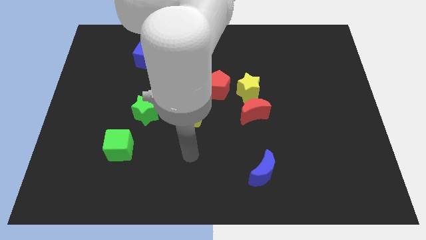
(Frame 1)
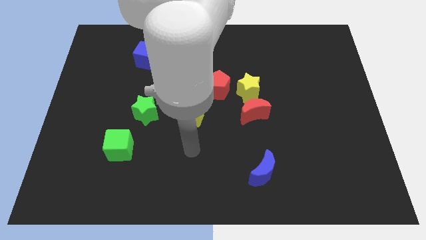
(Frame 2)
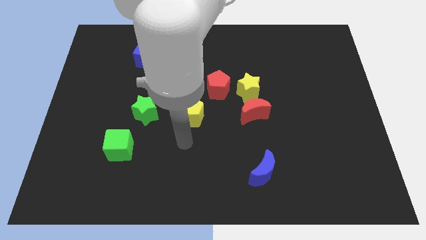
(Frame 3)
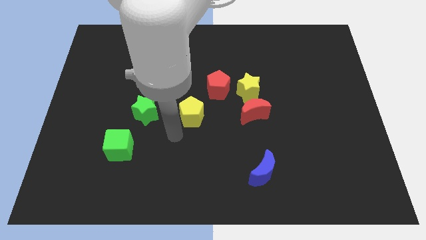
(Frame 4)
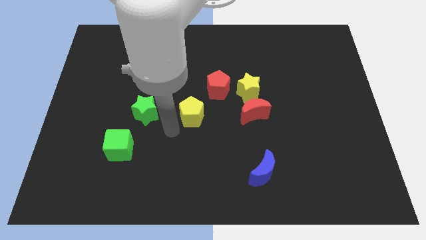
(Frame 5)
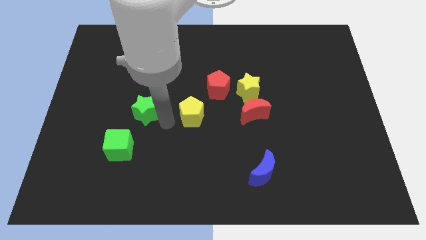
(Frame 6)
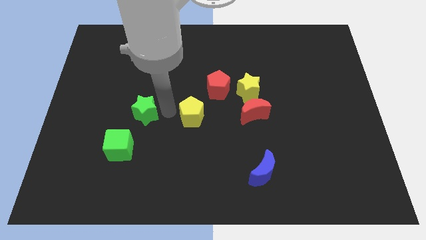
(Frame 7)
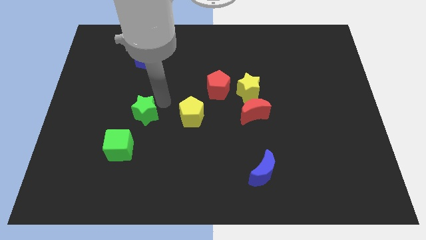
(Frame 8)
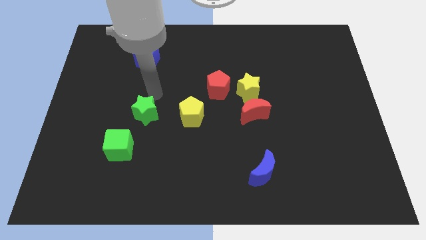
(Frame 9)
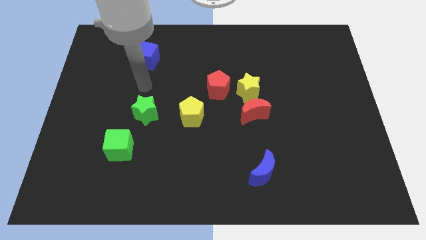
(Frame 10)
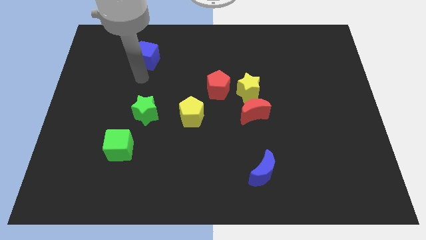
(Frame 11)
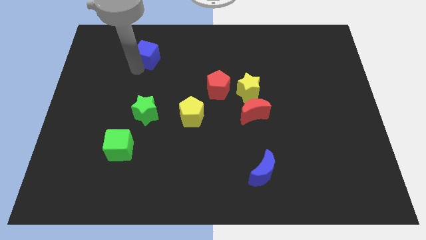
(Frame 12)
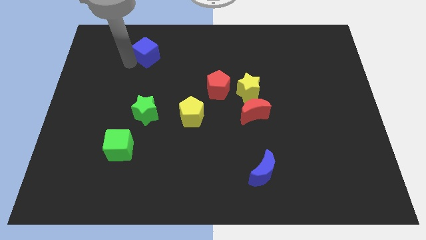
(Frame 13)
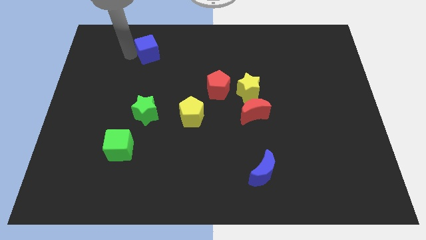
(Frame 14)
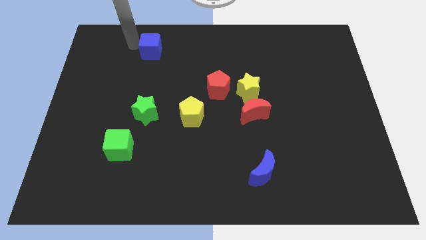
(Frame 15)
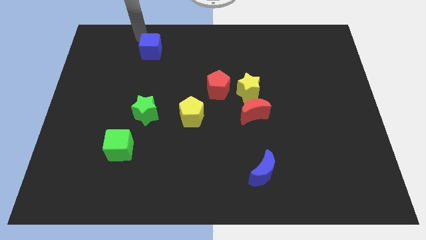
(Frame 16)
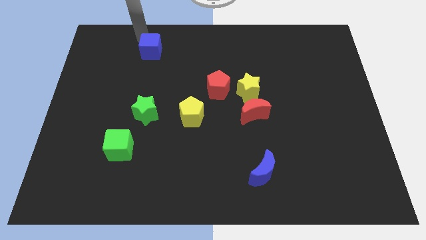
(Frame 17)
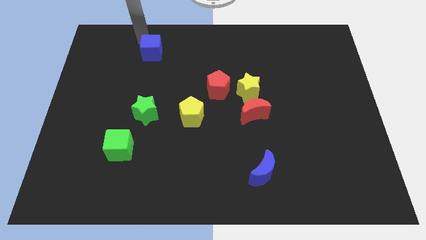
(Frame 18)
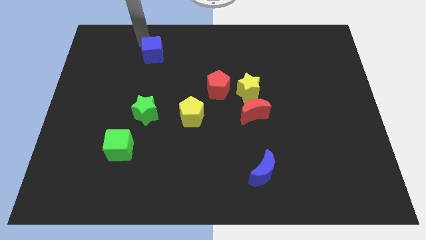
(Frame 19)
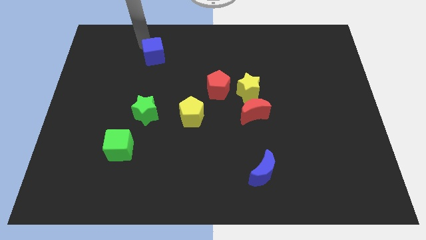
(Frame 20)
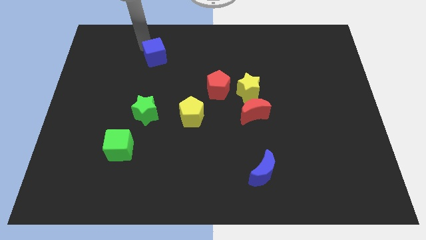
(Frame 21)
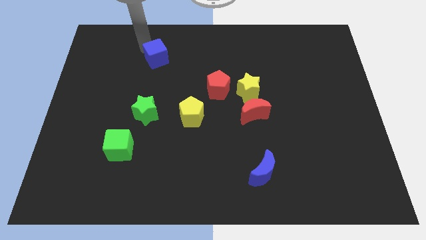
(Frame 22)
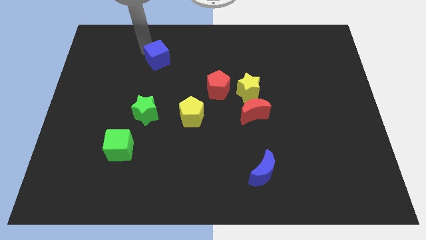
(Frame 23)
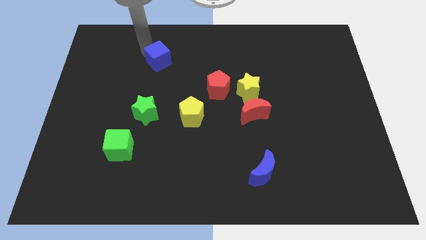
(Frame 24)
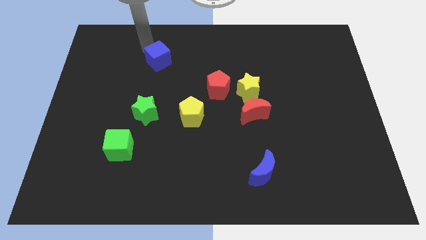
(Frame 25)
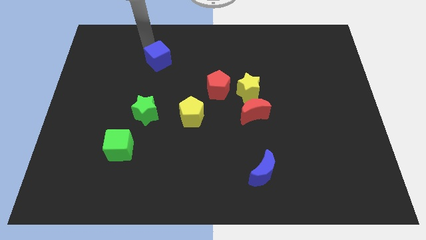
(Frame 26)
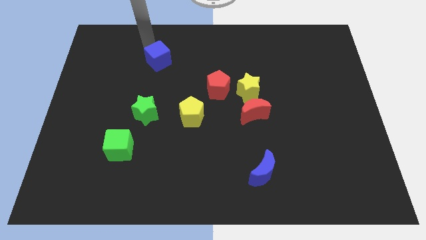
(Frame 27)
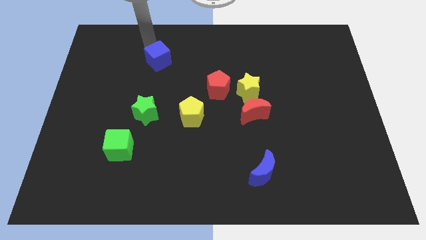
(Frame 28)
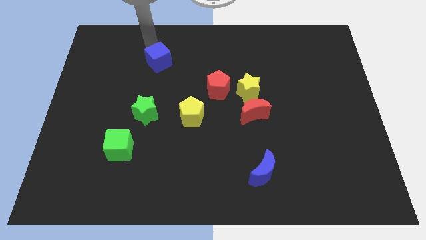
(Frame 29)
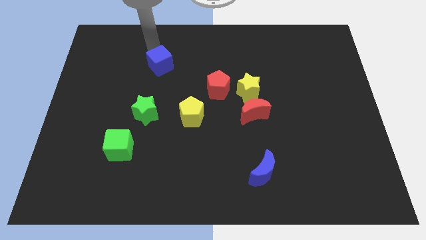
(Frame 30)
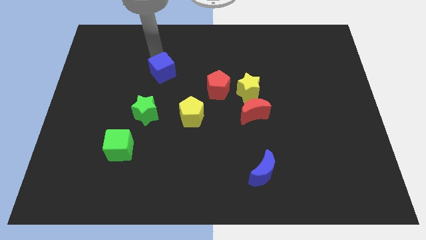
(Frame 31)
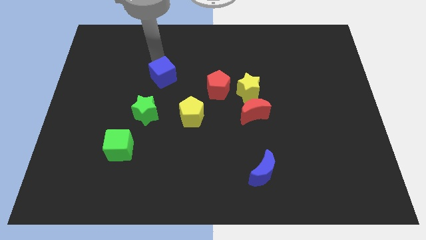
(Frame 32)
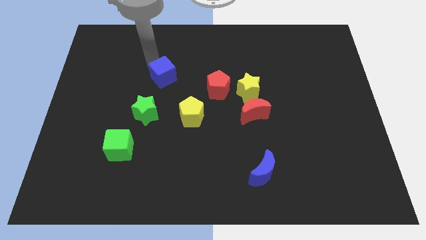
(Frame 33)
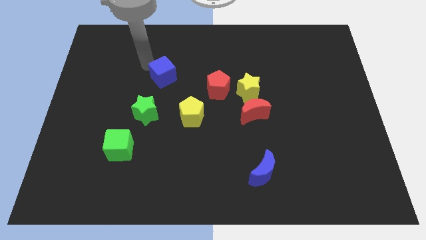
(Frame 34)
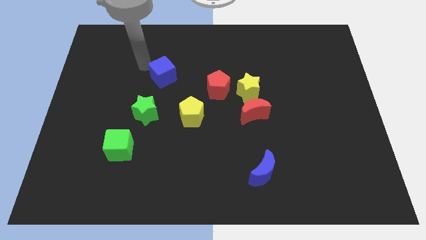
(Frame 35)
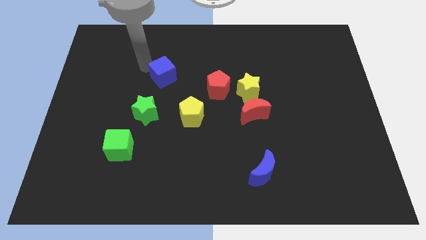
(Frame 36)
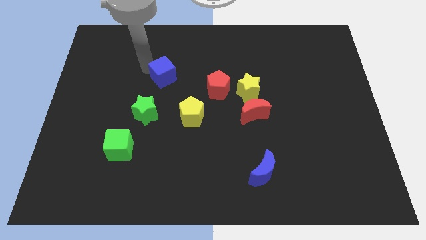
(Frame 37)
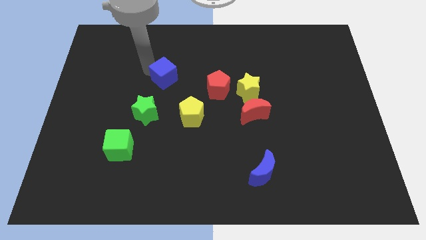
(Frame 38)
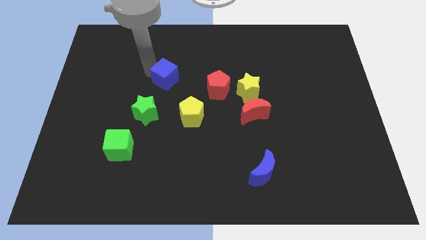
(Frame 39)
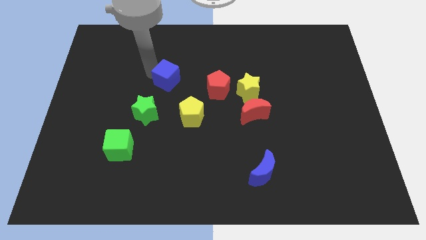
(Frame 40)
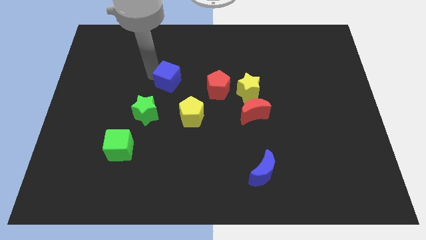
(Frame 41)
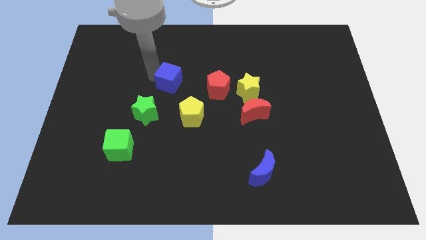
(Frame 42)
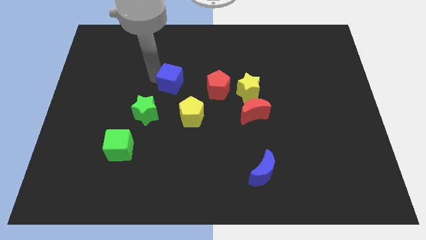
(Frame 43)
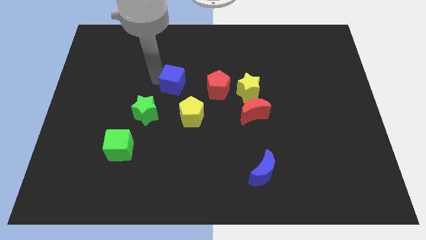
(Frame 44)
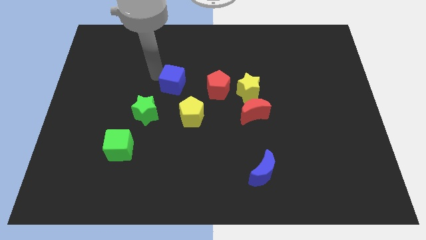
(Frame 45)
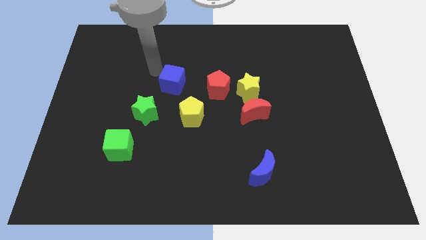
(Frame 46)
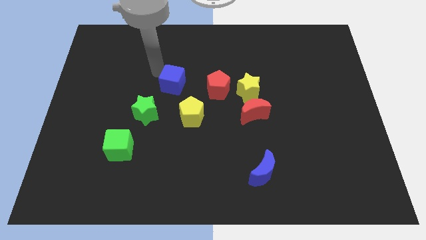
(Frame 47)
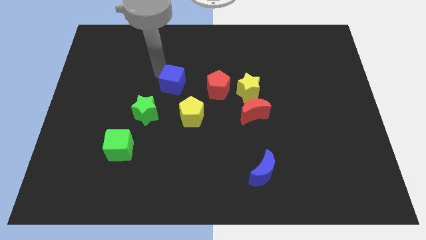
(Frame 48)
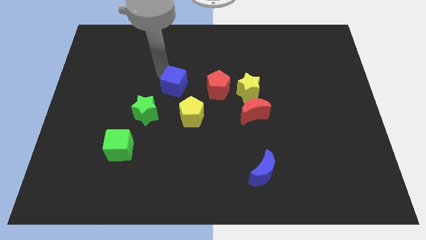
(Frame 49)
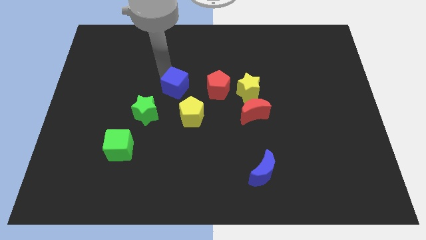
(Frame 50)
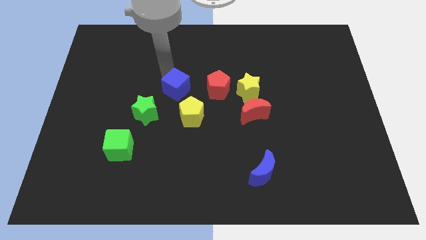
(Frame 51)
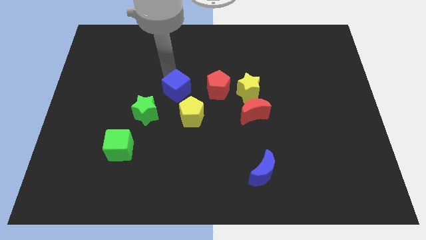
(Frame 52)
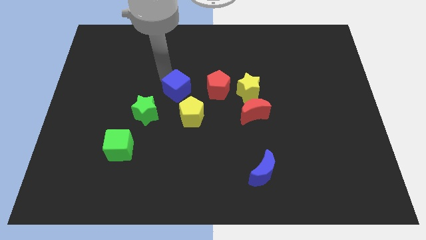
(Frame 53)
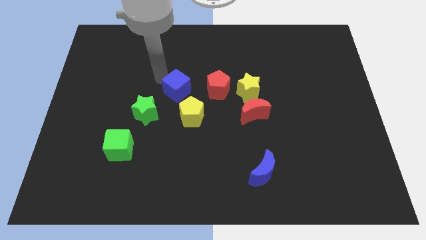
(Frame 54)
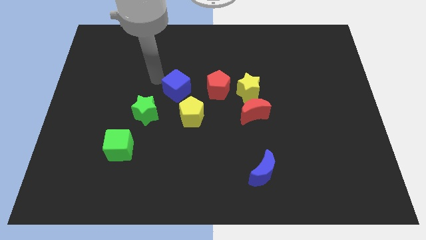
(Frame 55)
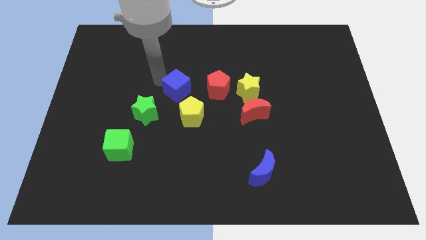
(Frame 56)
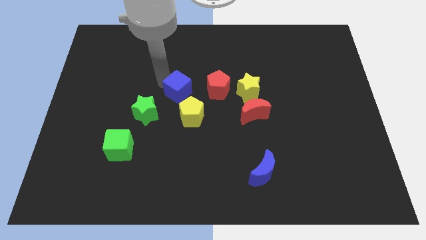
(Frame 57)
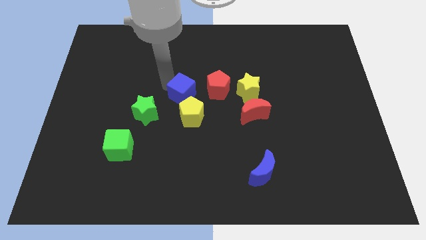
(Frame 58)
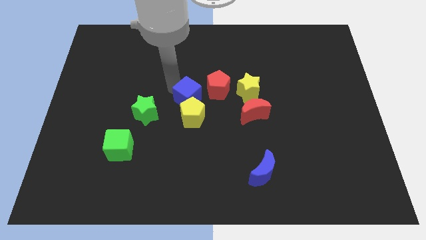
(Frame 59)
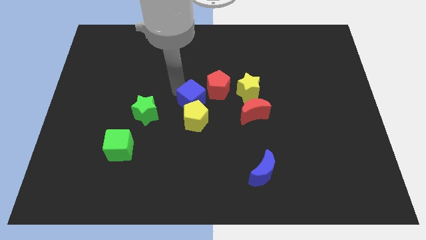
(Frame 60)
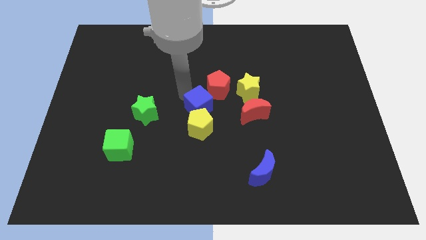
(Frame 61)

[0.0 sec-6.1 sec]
slide the blue cube diagonally downwards and to the right

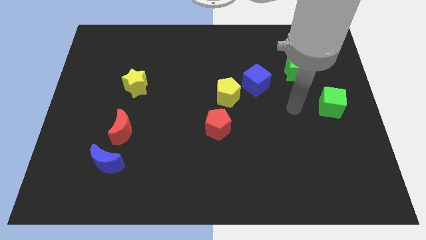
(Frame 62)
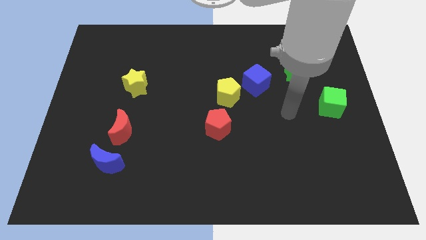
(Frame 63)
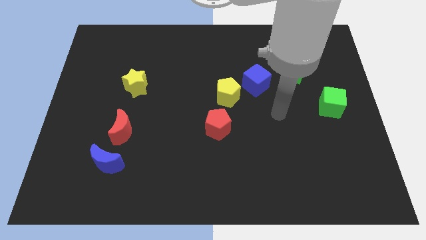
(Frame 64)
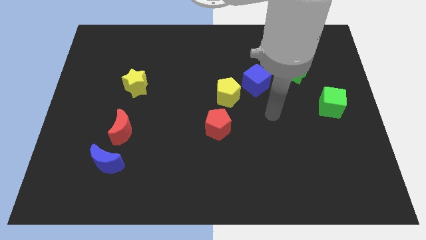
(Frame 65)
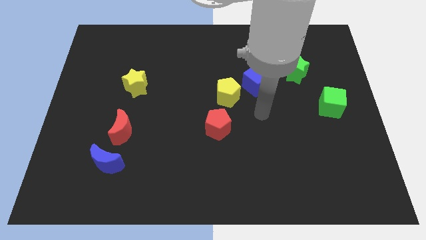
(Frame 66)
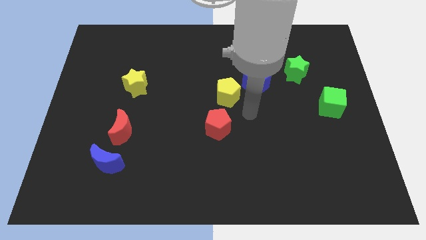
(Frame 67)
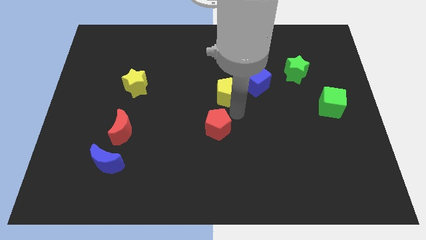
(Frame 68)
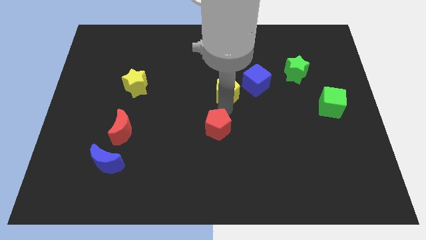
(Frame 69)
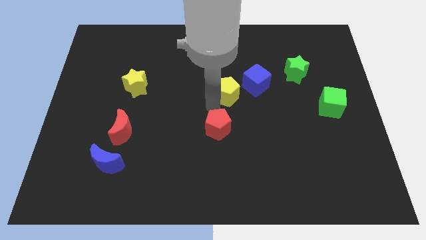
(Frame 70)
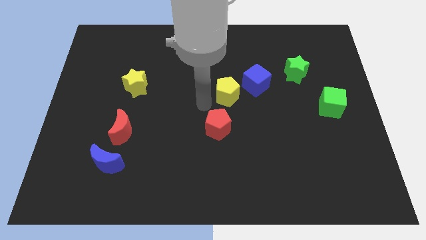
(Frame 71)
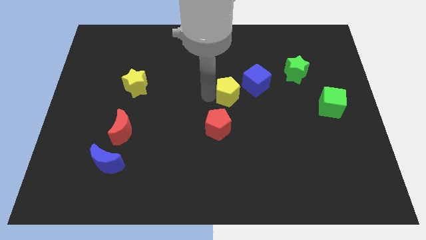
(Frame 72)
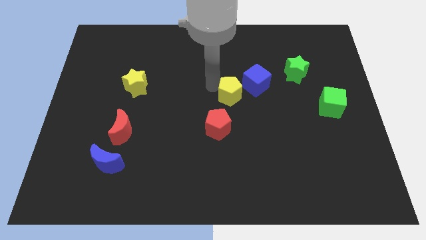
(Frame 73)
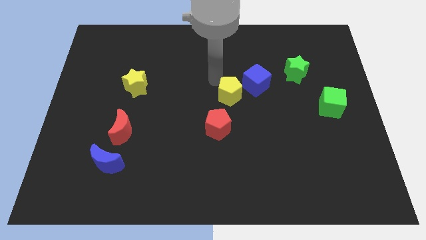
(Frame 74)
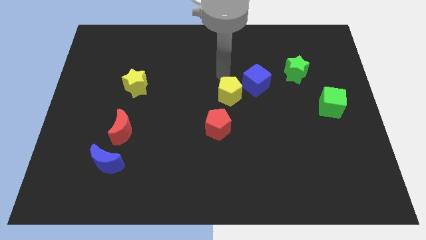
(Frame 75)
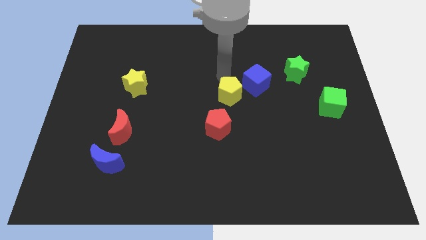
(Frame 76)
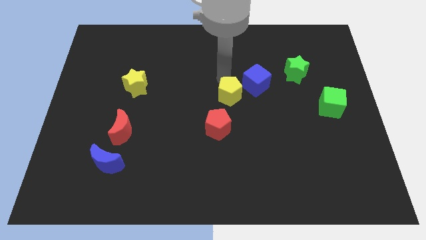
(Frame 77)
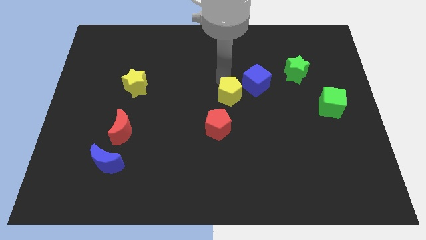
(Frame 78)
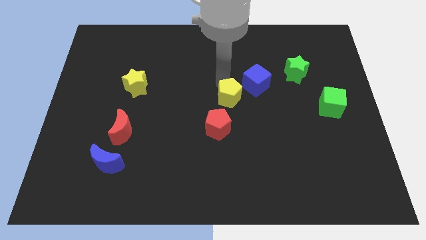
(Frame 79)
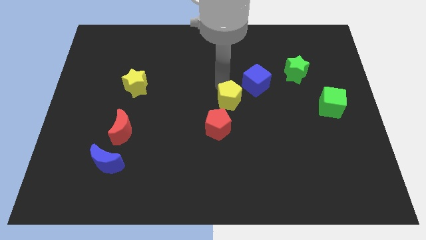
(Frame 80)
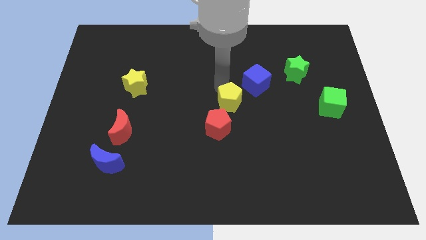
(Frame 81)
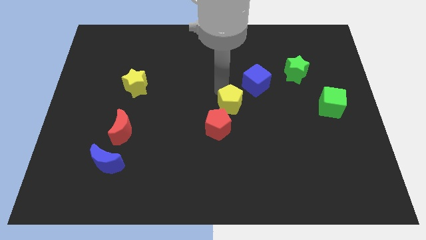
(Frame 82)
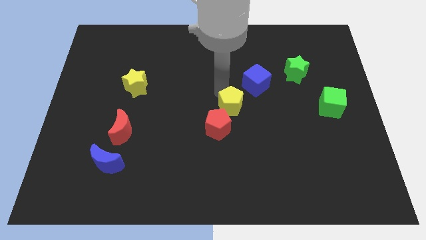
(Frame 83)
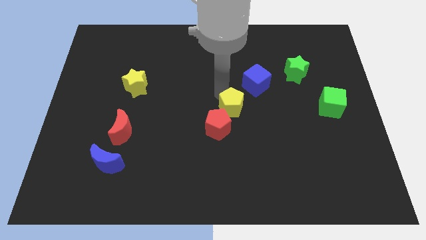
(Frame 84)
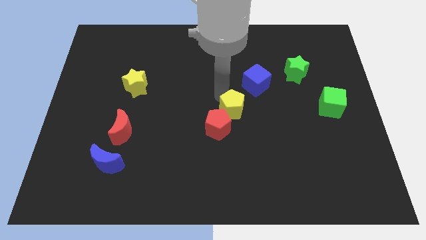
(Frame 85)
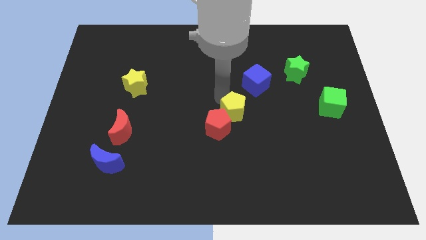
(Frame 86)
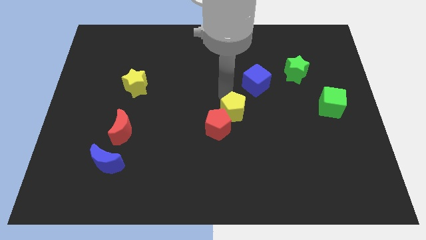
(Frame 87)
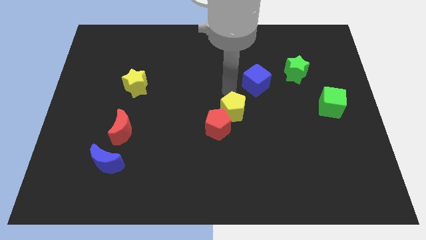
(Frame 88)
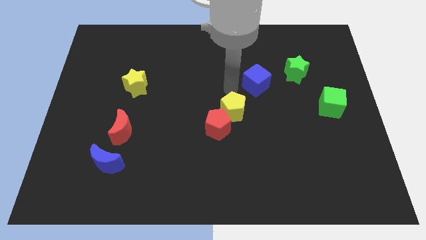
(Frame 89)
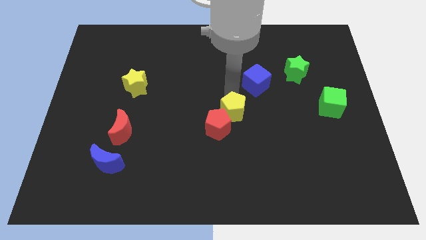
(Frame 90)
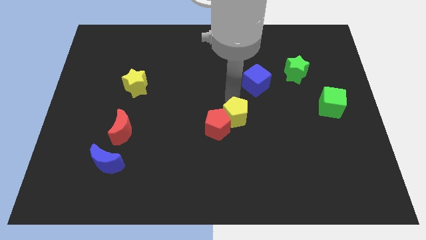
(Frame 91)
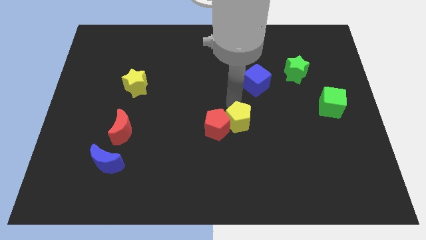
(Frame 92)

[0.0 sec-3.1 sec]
move the yellow pentagon a bit down
